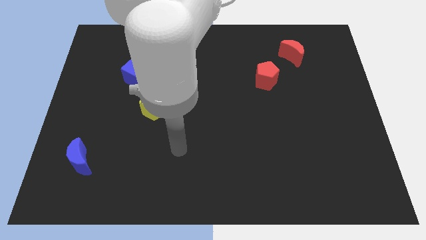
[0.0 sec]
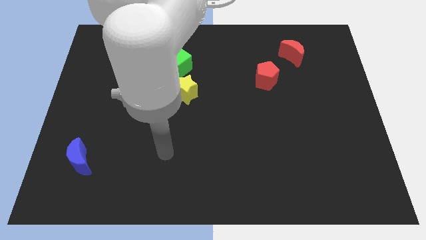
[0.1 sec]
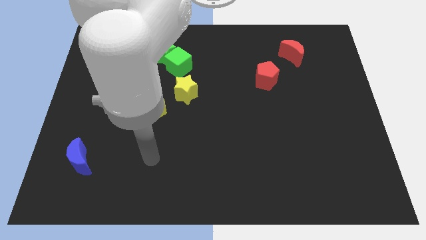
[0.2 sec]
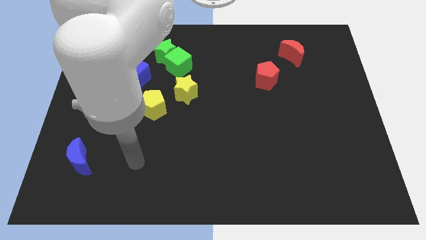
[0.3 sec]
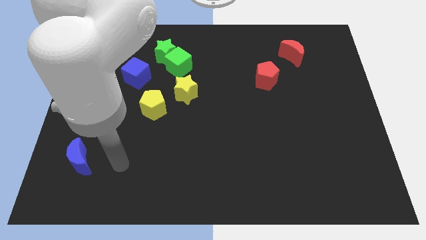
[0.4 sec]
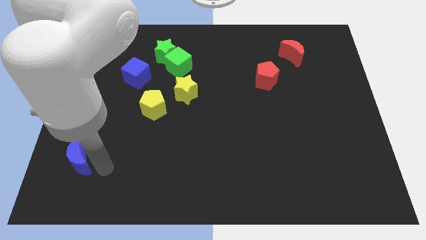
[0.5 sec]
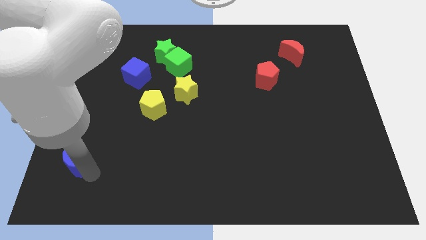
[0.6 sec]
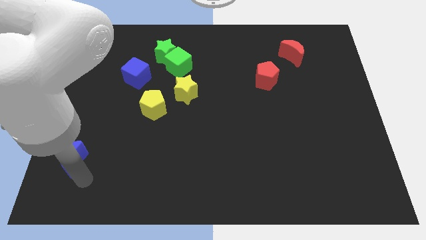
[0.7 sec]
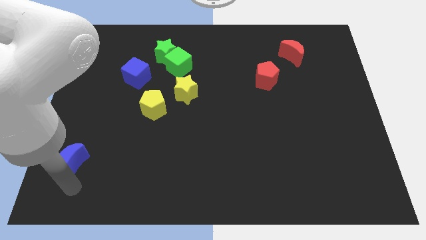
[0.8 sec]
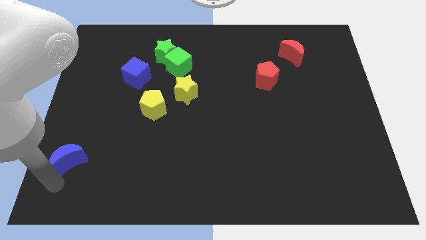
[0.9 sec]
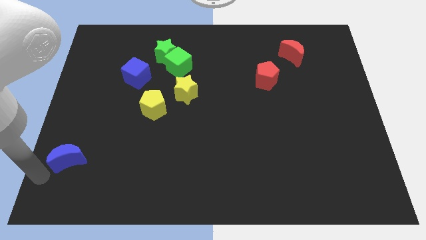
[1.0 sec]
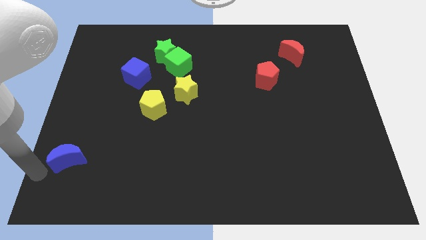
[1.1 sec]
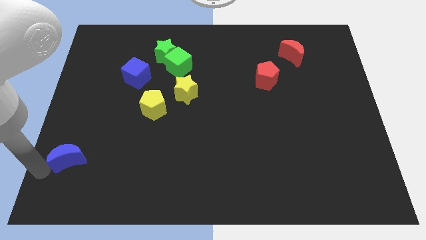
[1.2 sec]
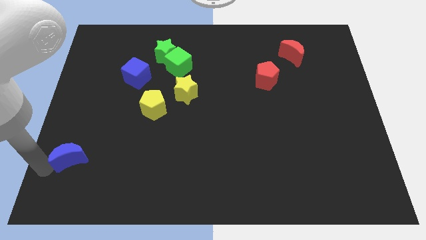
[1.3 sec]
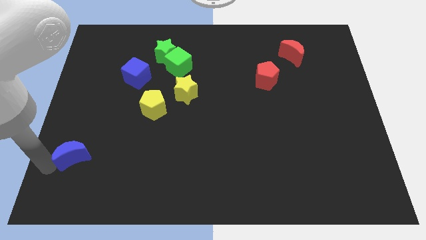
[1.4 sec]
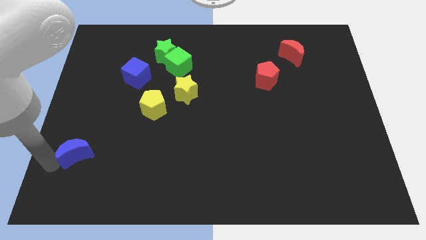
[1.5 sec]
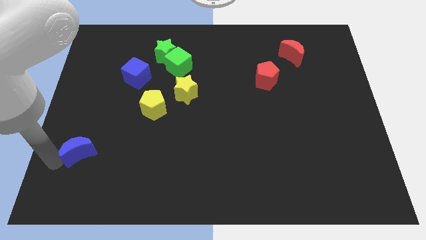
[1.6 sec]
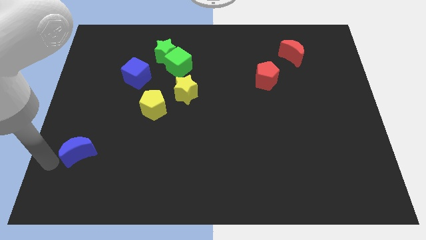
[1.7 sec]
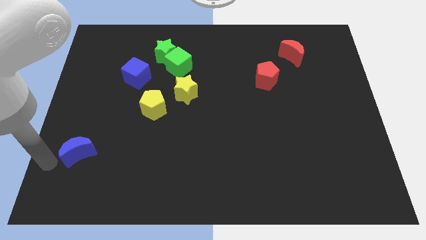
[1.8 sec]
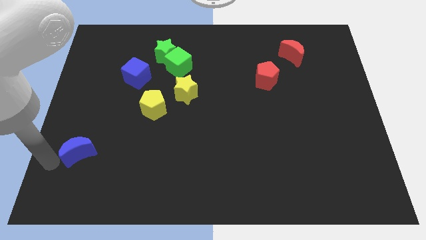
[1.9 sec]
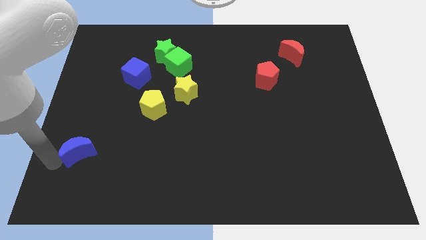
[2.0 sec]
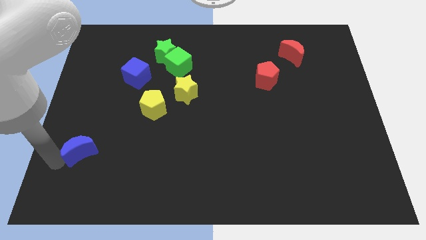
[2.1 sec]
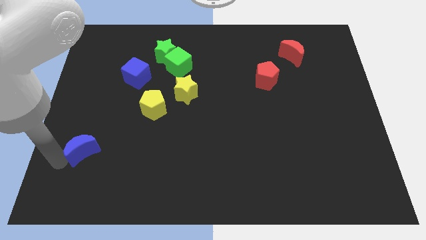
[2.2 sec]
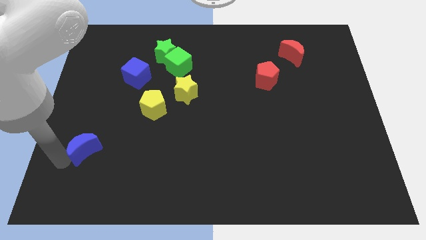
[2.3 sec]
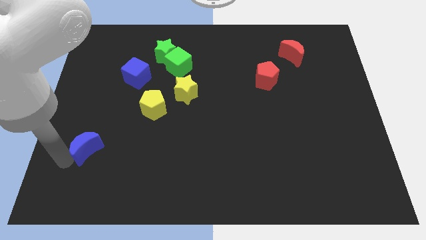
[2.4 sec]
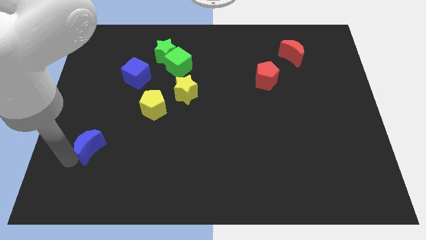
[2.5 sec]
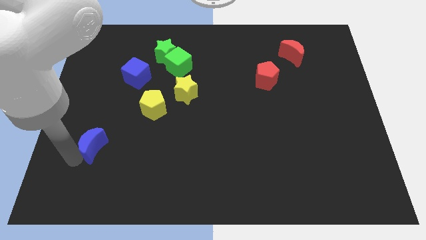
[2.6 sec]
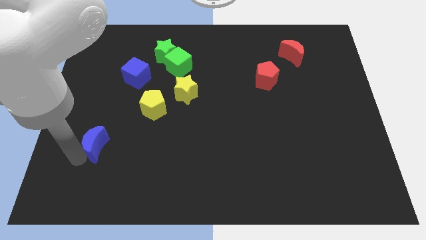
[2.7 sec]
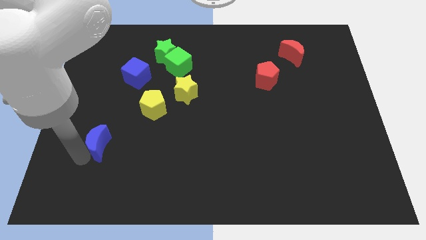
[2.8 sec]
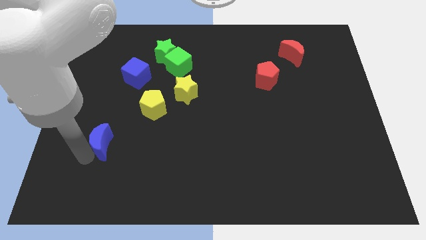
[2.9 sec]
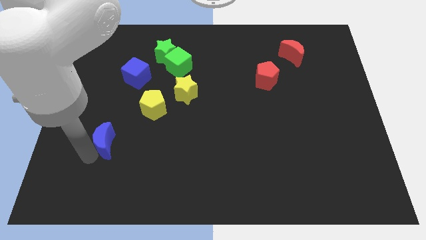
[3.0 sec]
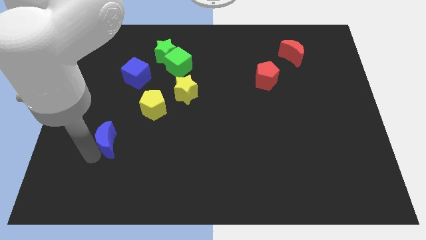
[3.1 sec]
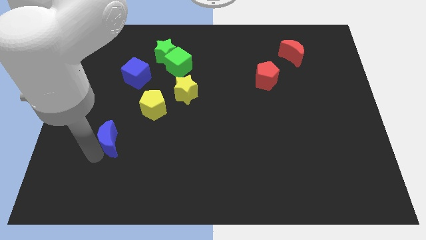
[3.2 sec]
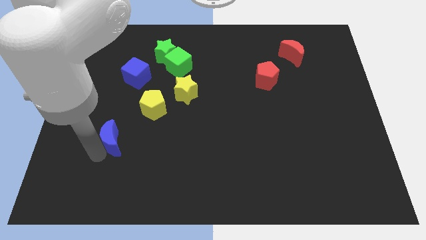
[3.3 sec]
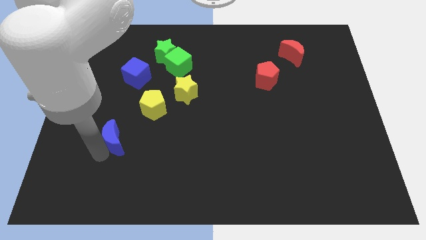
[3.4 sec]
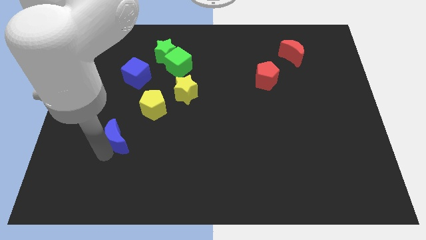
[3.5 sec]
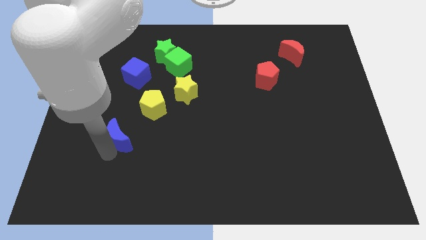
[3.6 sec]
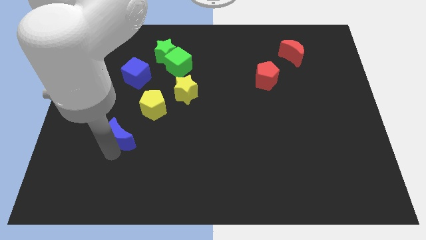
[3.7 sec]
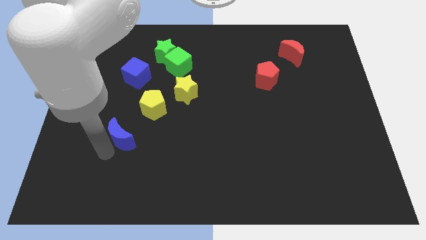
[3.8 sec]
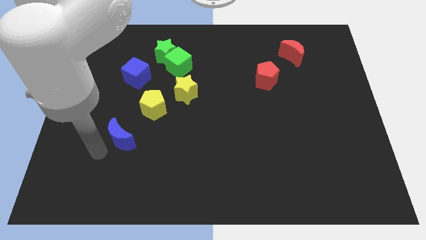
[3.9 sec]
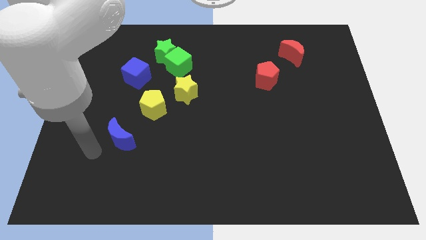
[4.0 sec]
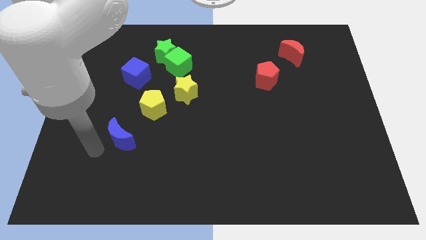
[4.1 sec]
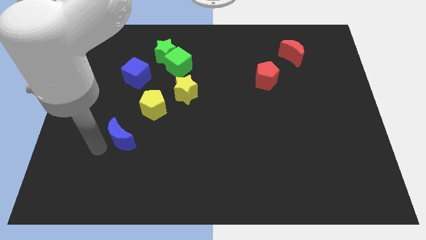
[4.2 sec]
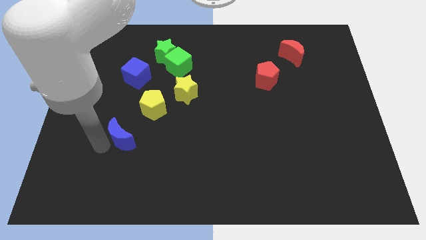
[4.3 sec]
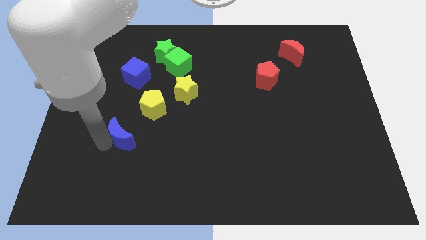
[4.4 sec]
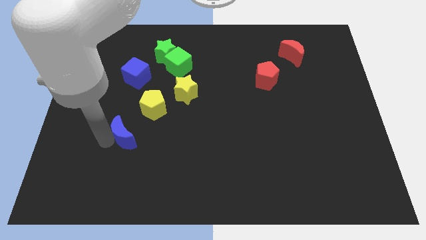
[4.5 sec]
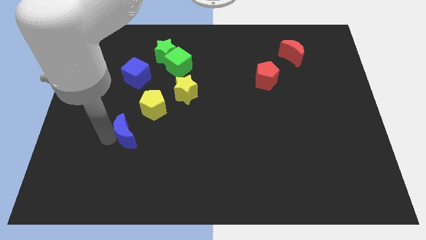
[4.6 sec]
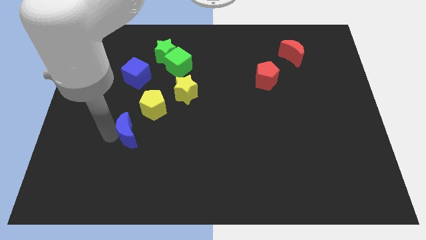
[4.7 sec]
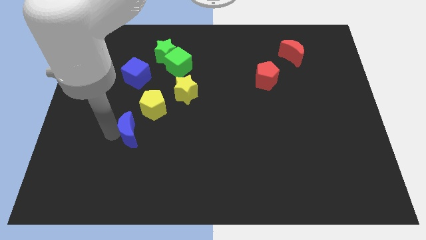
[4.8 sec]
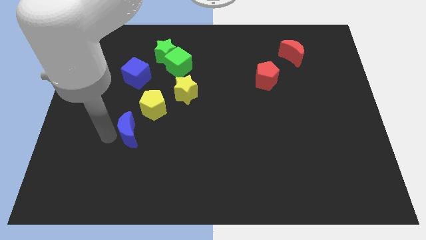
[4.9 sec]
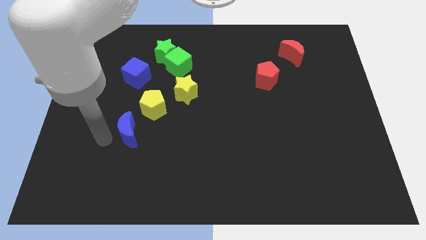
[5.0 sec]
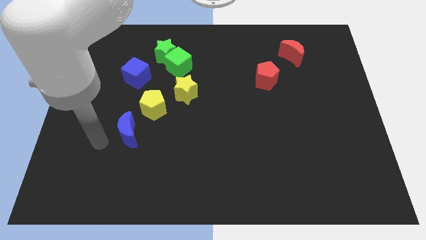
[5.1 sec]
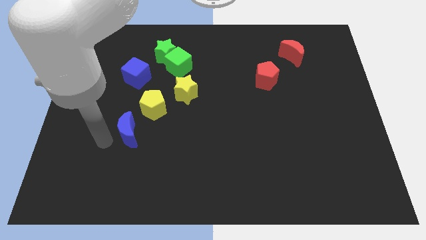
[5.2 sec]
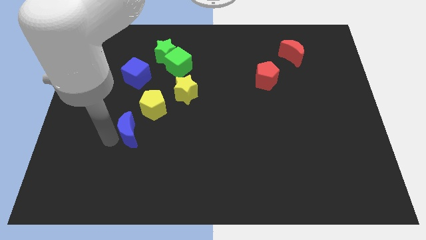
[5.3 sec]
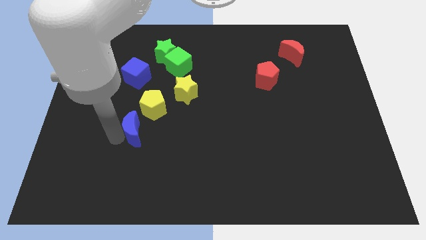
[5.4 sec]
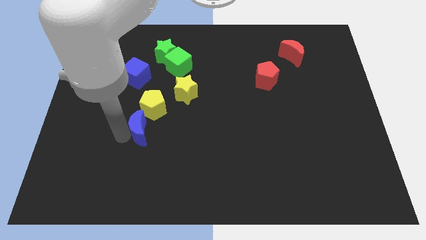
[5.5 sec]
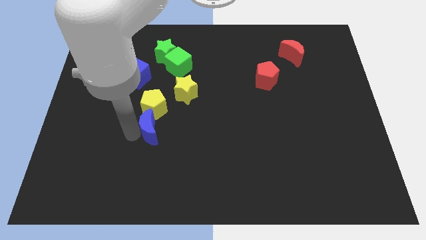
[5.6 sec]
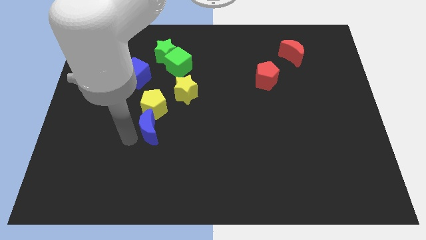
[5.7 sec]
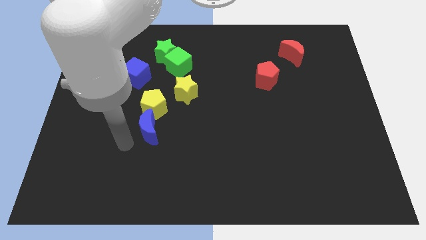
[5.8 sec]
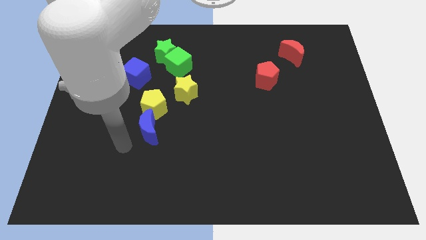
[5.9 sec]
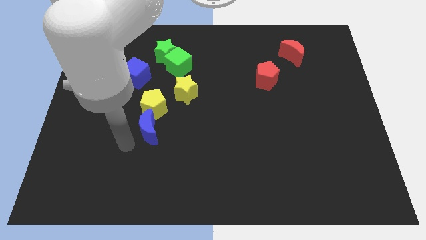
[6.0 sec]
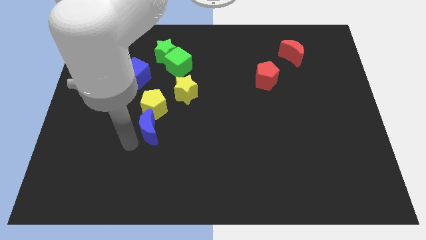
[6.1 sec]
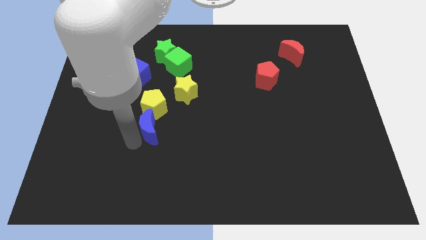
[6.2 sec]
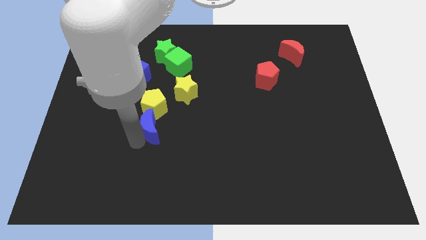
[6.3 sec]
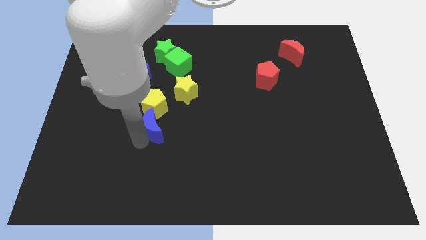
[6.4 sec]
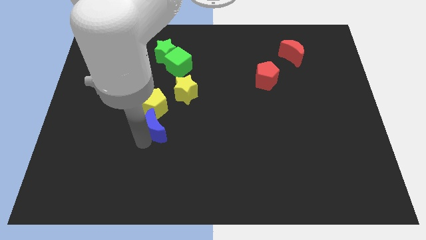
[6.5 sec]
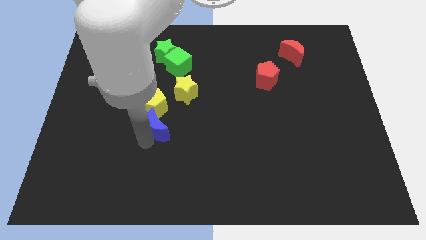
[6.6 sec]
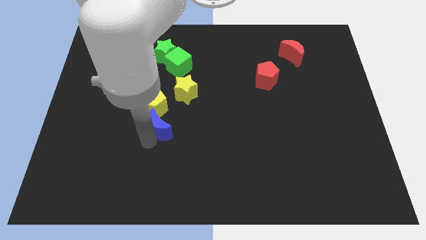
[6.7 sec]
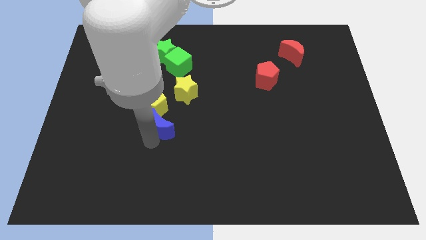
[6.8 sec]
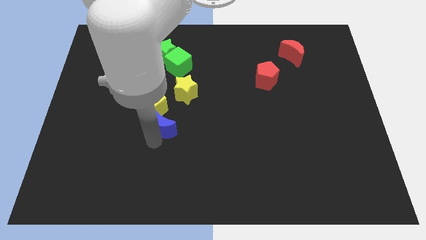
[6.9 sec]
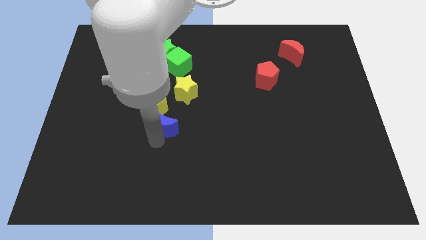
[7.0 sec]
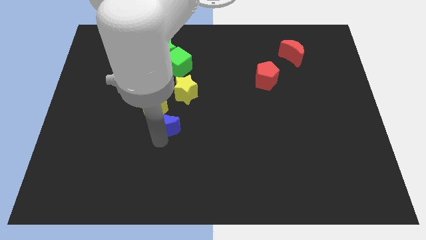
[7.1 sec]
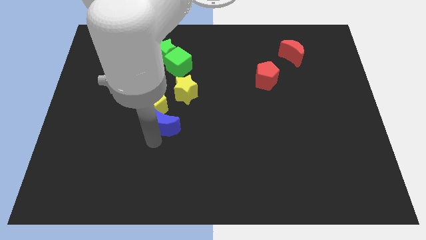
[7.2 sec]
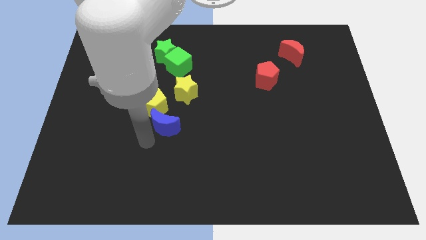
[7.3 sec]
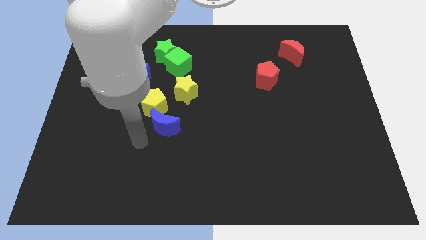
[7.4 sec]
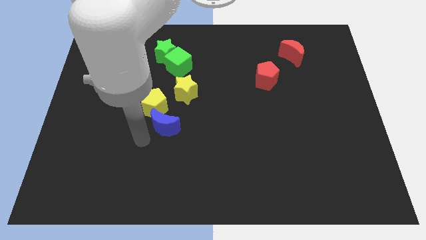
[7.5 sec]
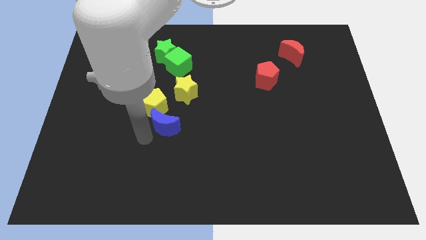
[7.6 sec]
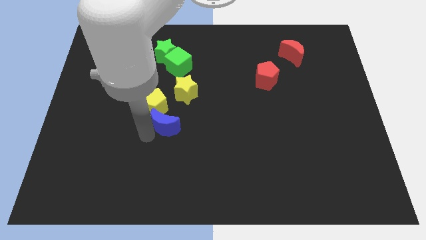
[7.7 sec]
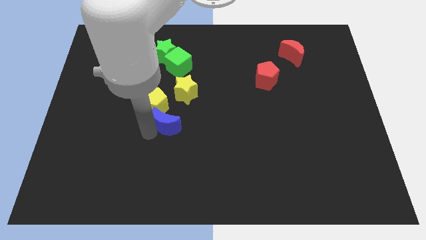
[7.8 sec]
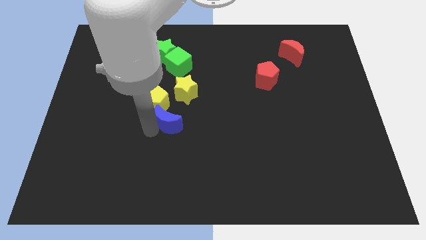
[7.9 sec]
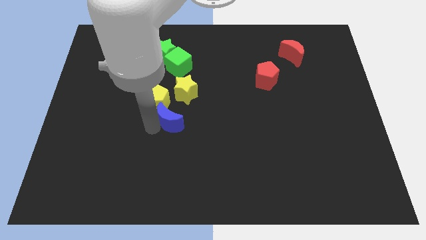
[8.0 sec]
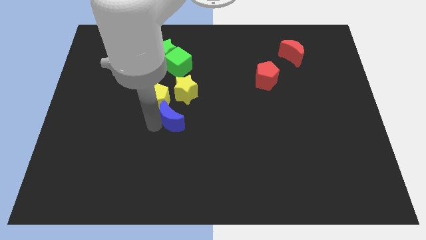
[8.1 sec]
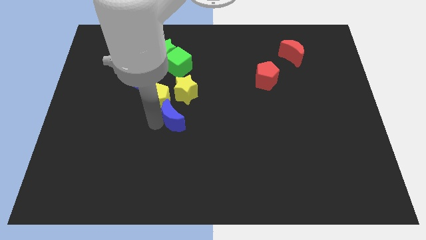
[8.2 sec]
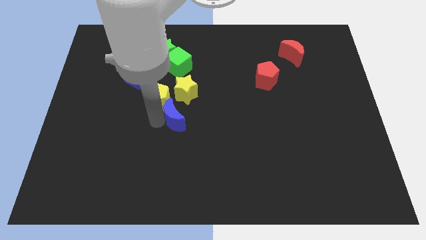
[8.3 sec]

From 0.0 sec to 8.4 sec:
slide the blue moon upwards and then right
